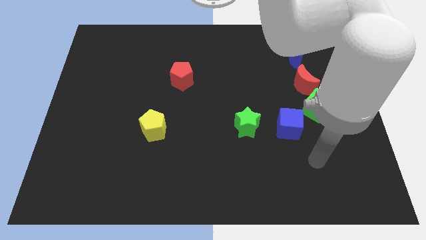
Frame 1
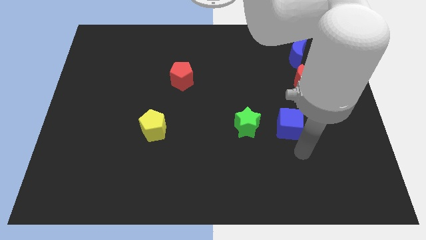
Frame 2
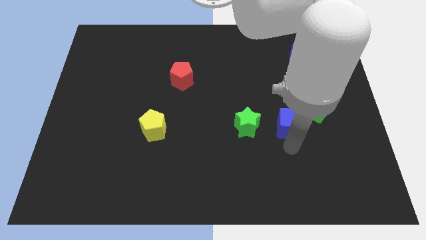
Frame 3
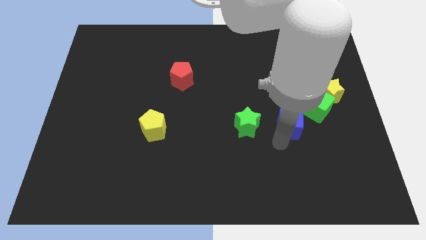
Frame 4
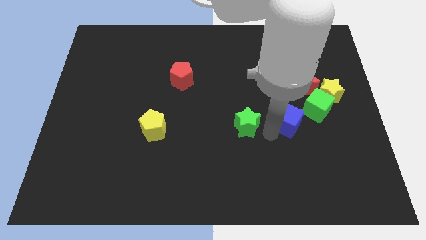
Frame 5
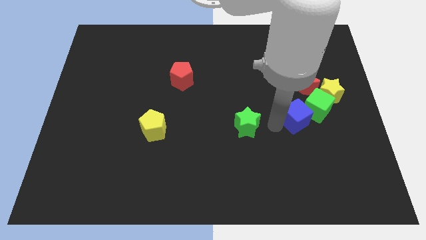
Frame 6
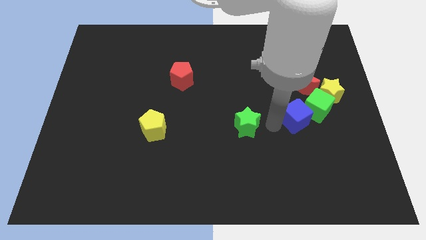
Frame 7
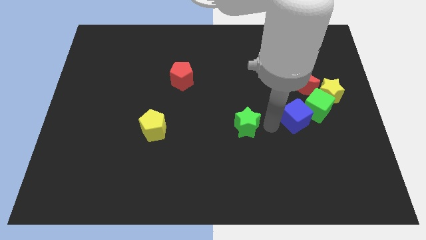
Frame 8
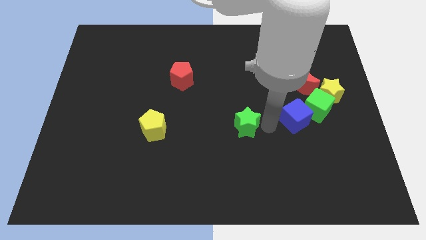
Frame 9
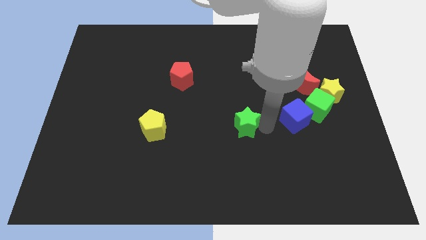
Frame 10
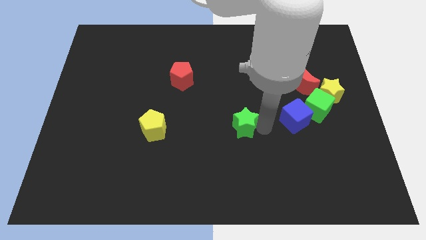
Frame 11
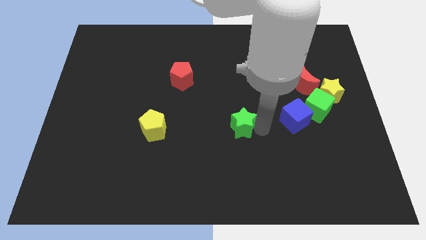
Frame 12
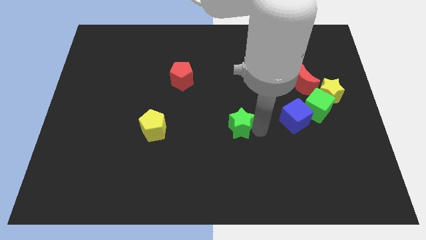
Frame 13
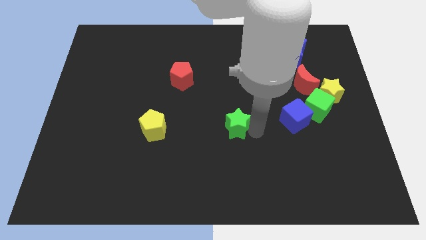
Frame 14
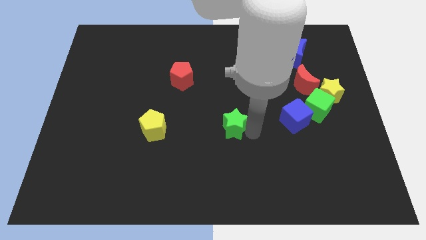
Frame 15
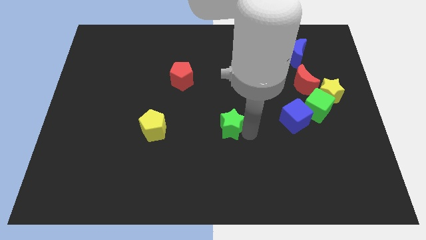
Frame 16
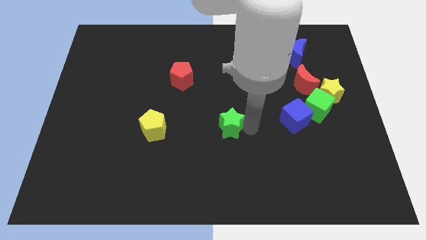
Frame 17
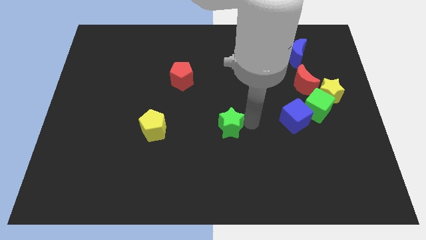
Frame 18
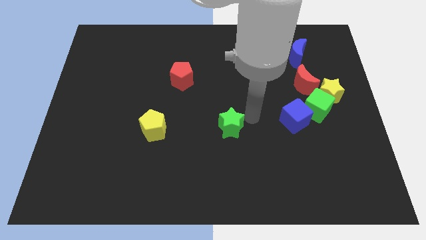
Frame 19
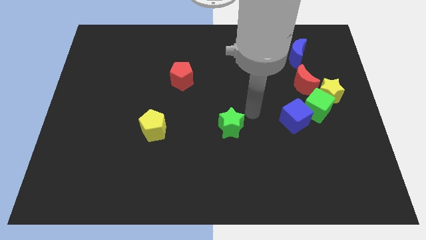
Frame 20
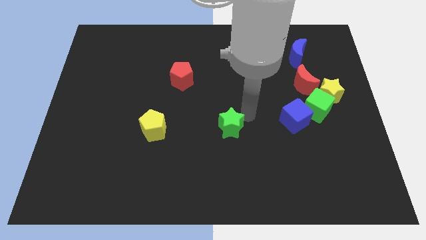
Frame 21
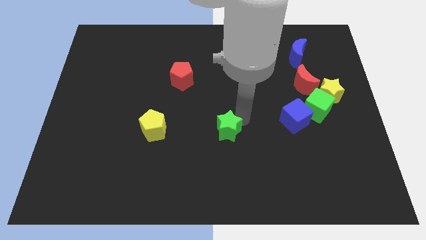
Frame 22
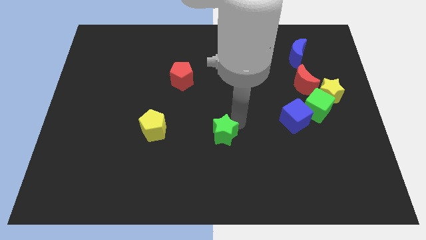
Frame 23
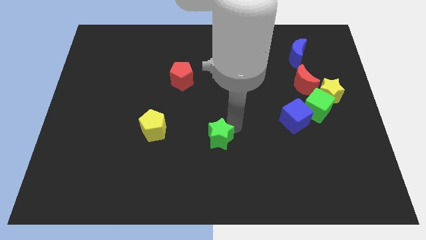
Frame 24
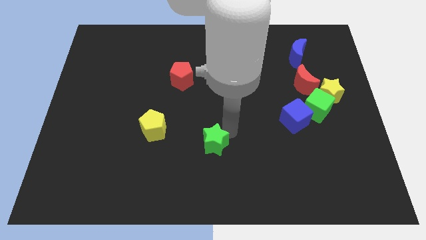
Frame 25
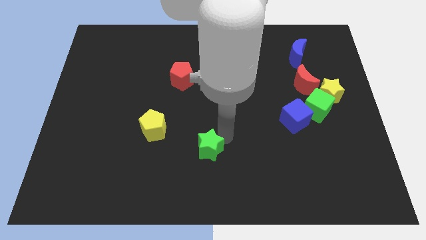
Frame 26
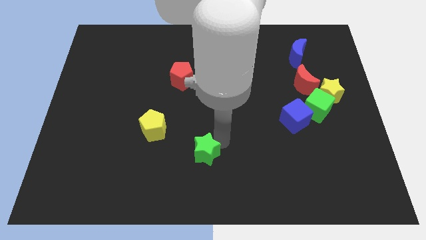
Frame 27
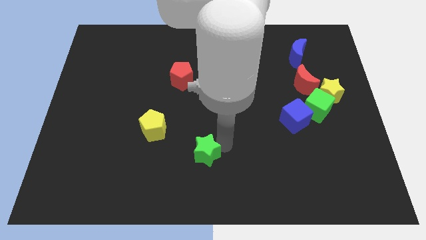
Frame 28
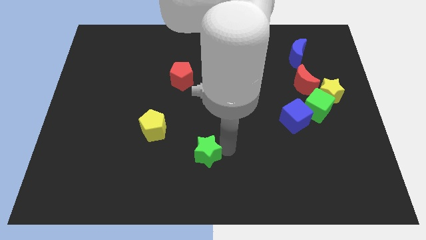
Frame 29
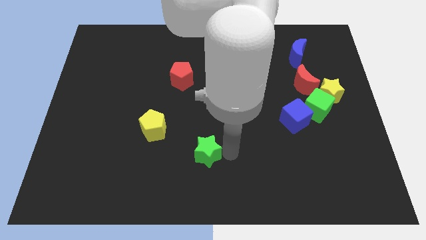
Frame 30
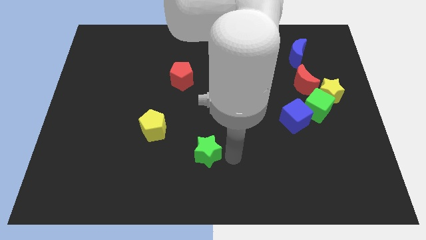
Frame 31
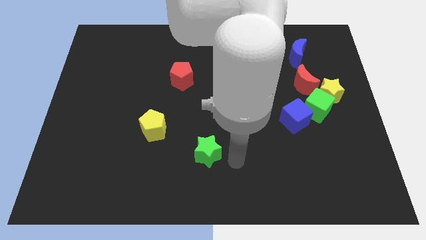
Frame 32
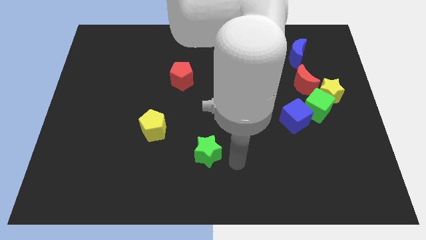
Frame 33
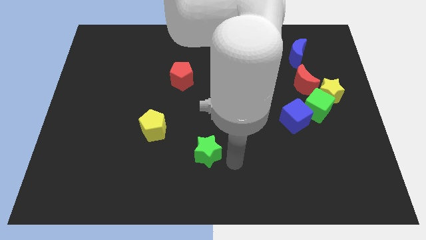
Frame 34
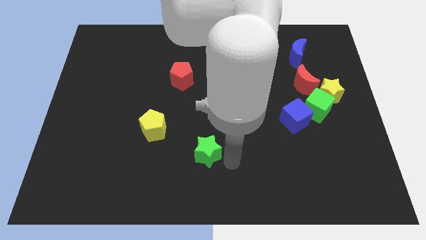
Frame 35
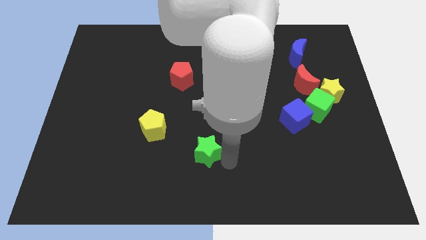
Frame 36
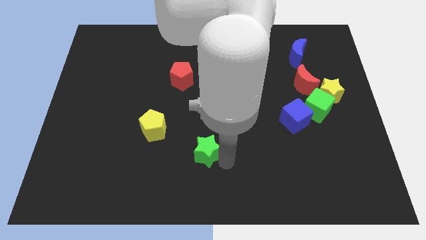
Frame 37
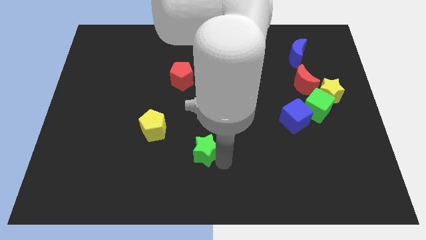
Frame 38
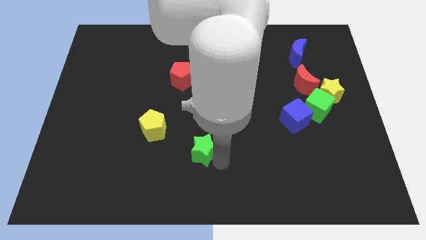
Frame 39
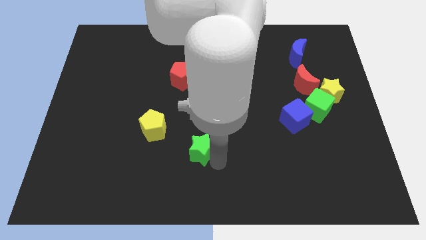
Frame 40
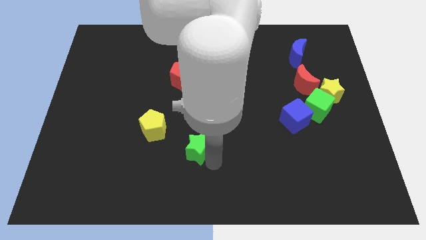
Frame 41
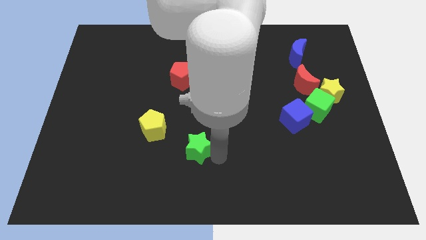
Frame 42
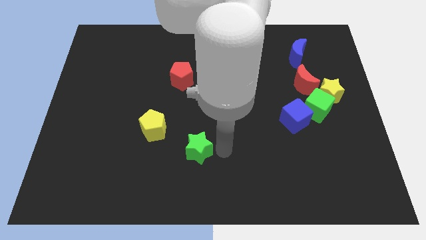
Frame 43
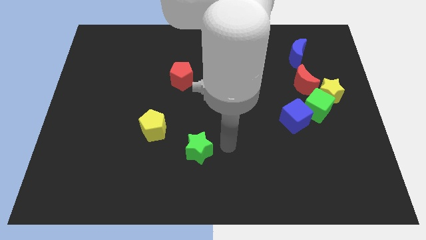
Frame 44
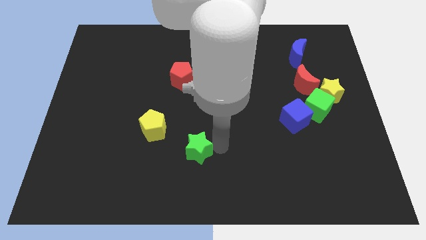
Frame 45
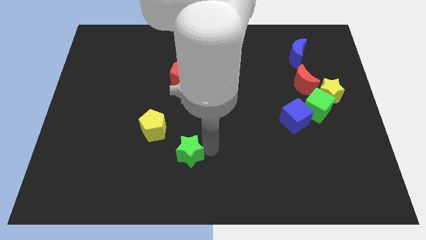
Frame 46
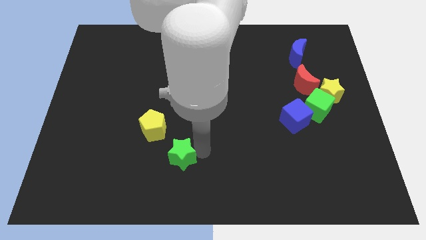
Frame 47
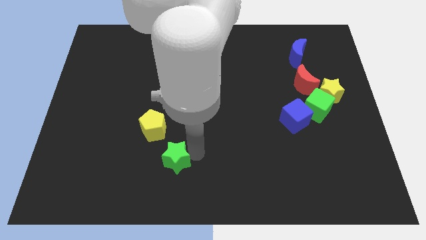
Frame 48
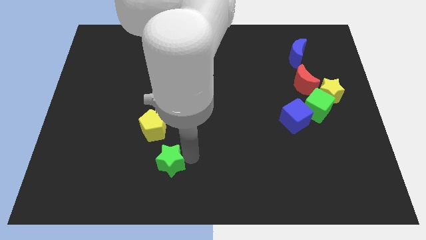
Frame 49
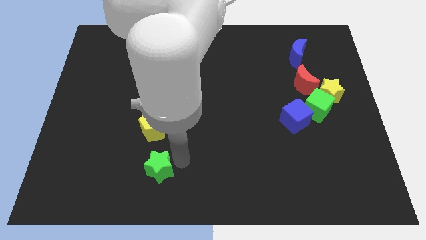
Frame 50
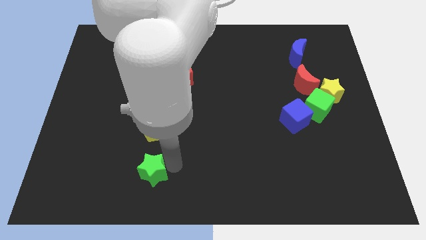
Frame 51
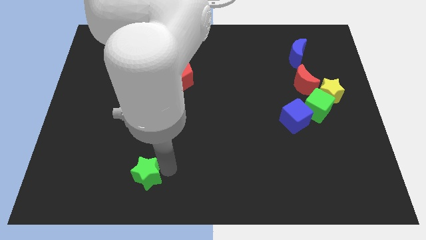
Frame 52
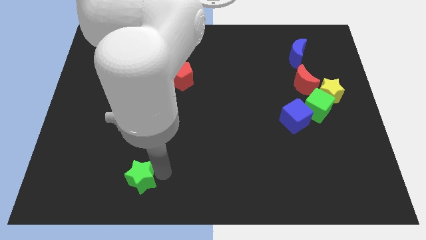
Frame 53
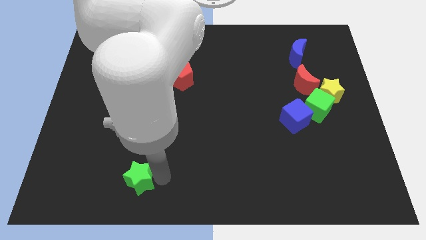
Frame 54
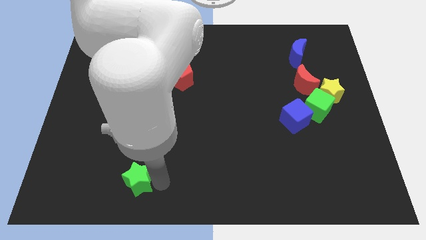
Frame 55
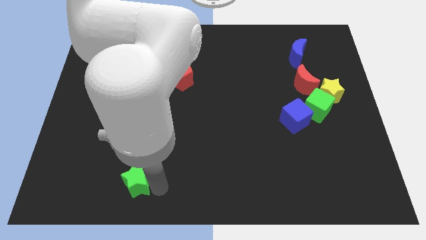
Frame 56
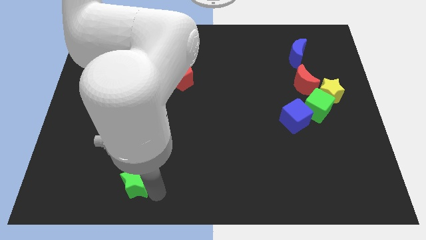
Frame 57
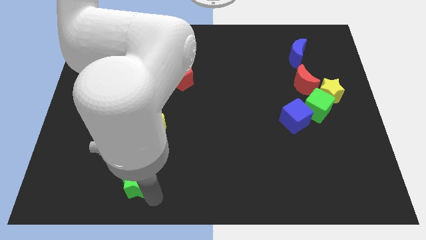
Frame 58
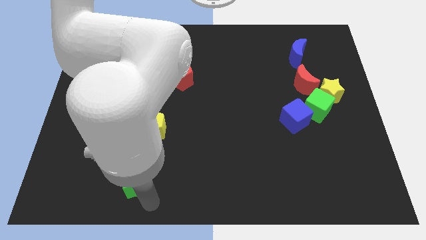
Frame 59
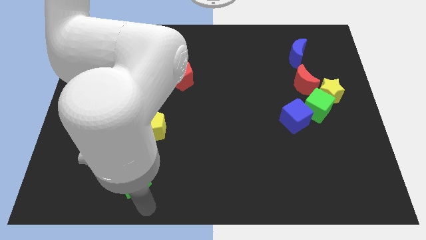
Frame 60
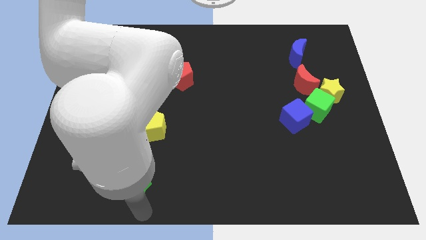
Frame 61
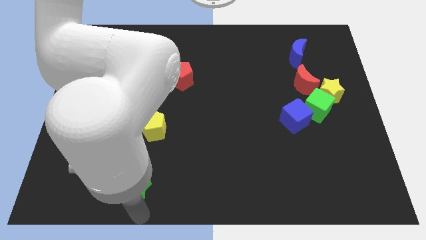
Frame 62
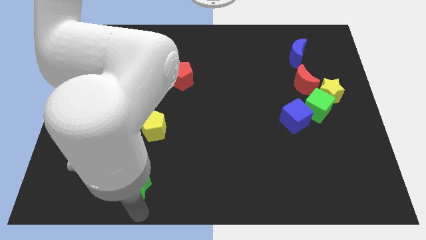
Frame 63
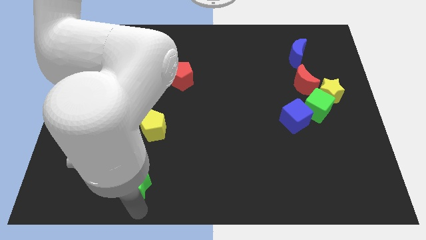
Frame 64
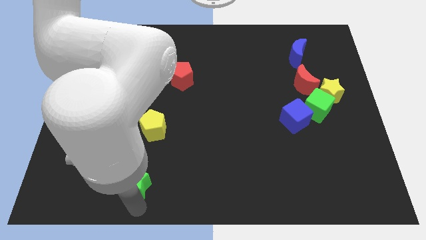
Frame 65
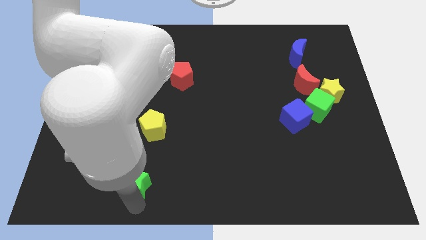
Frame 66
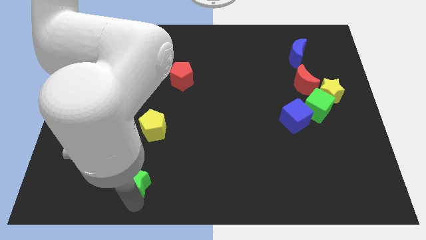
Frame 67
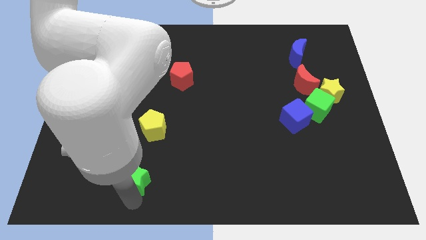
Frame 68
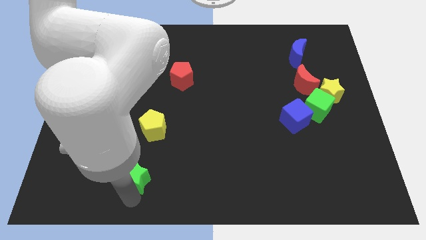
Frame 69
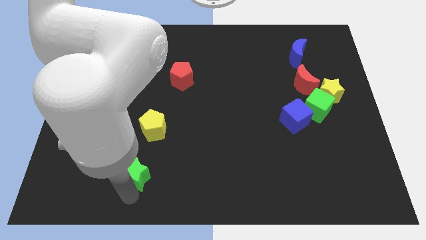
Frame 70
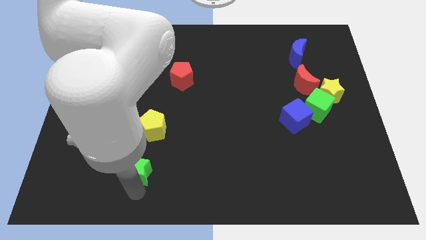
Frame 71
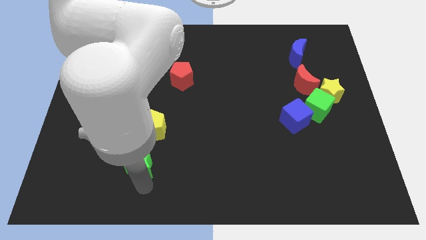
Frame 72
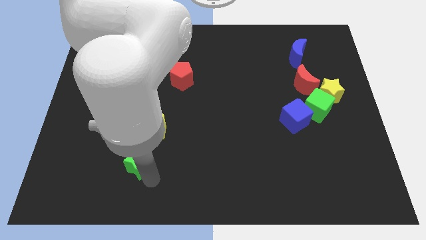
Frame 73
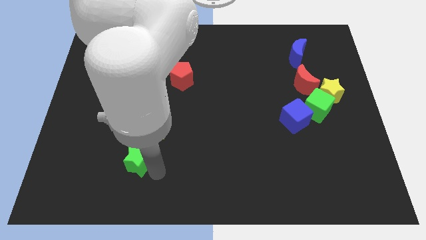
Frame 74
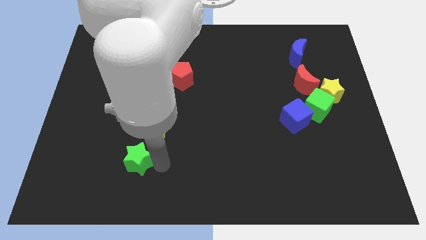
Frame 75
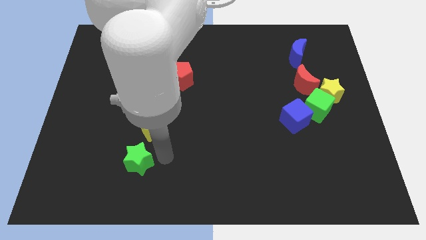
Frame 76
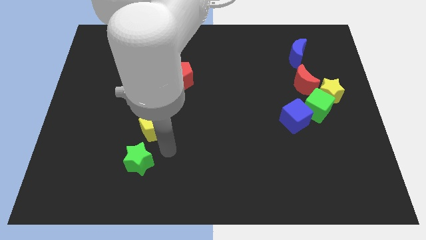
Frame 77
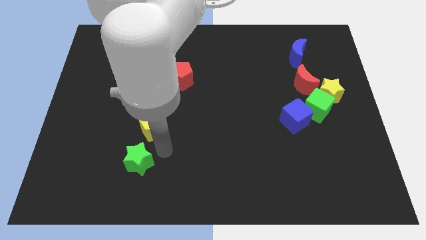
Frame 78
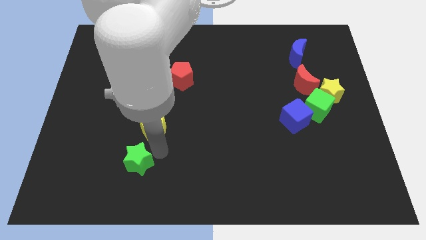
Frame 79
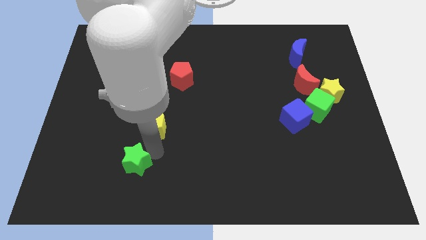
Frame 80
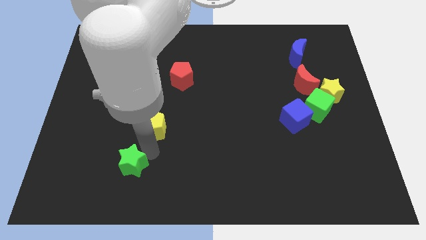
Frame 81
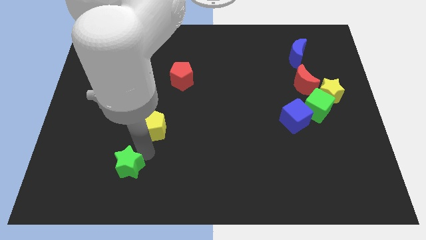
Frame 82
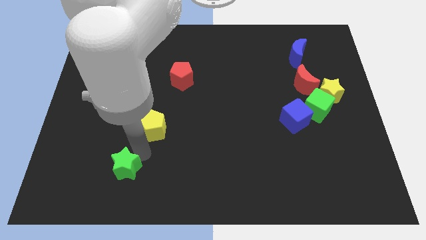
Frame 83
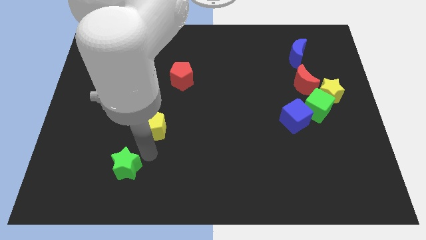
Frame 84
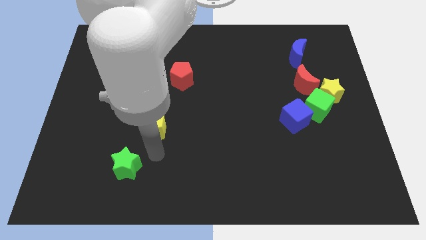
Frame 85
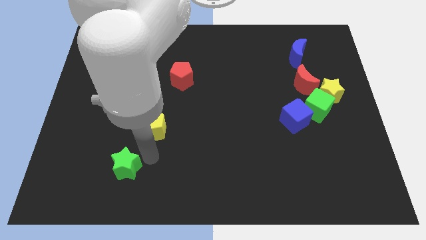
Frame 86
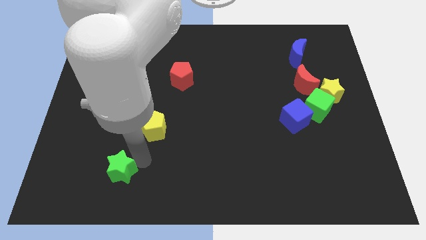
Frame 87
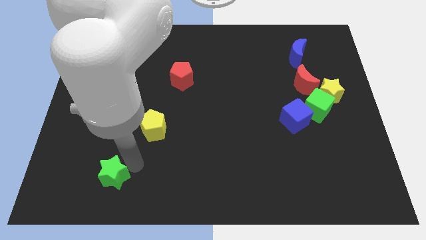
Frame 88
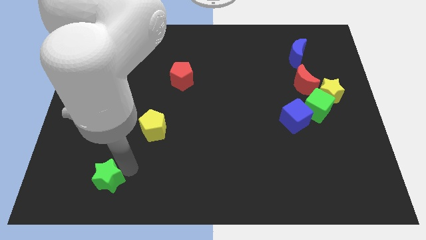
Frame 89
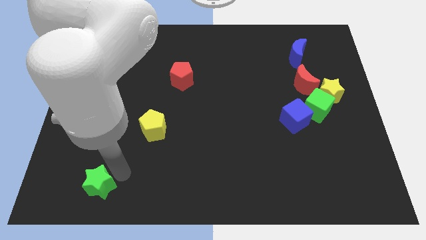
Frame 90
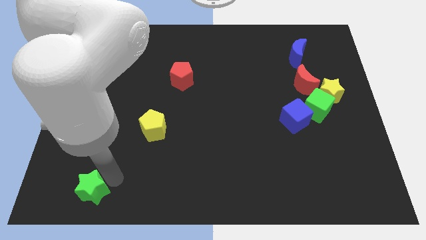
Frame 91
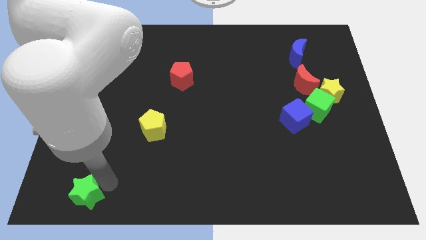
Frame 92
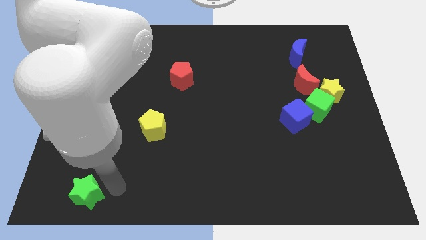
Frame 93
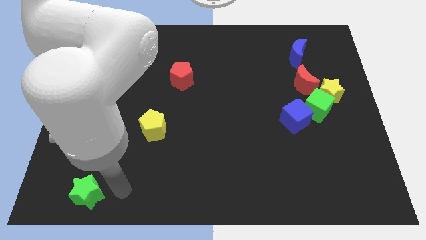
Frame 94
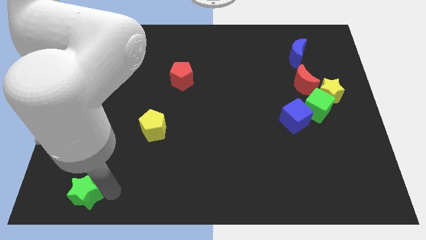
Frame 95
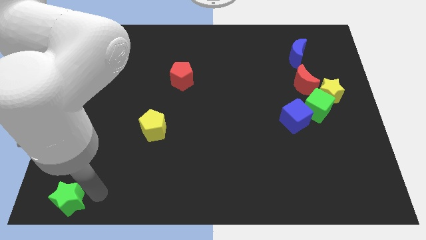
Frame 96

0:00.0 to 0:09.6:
push the green star to the bottom left
